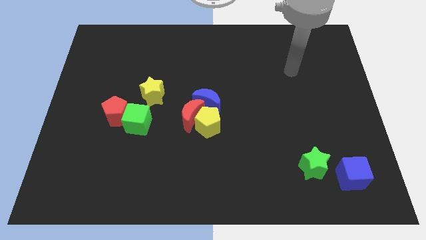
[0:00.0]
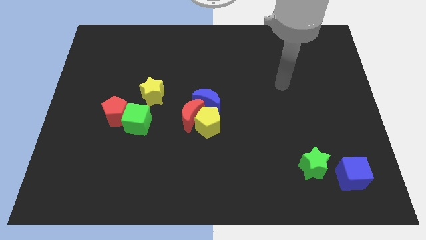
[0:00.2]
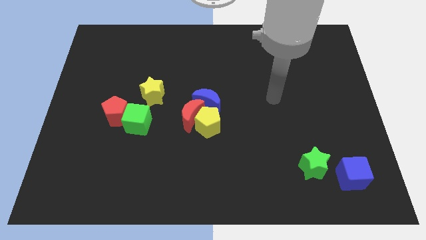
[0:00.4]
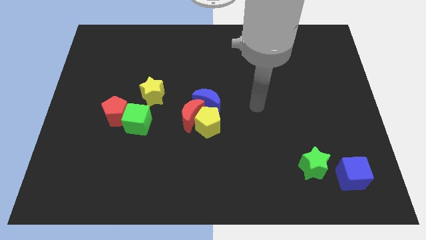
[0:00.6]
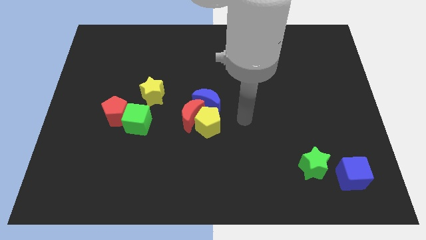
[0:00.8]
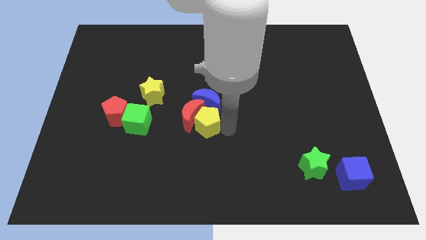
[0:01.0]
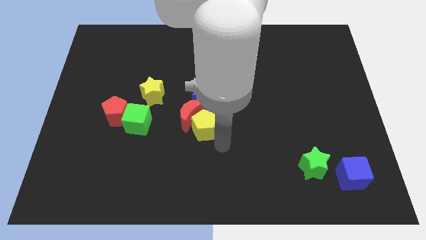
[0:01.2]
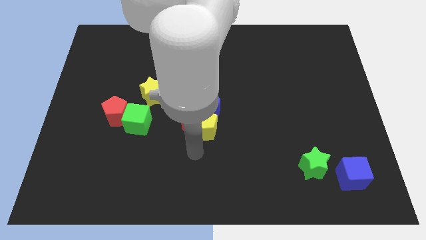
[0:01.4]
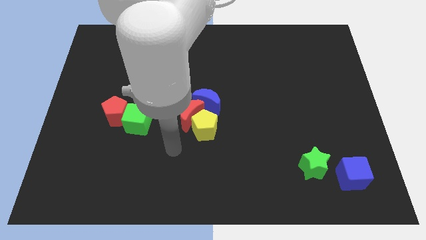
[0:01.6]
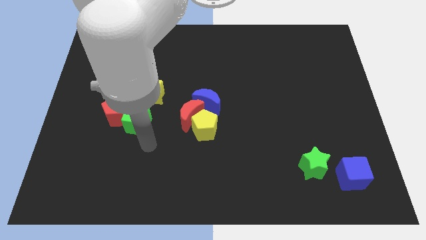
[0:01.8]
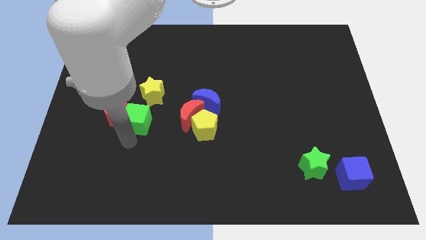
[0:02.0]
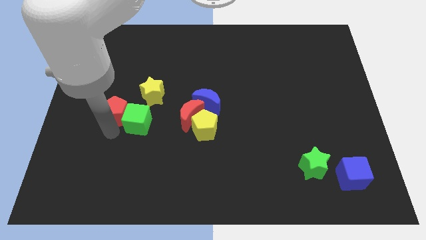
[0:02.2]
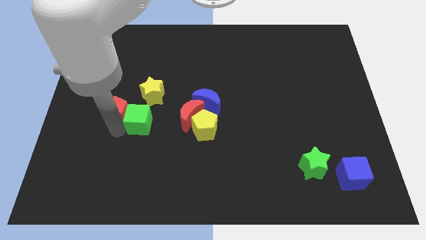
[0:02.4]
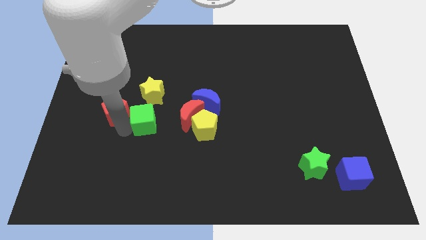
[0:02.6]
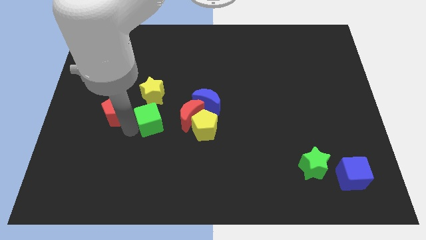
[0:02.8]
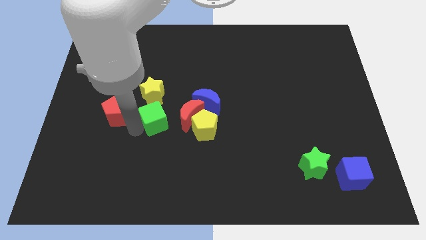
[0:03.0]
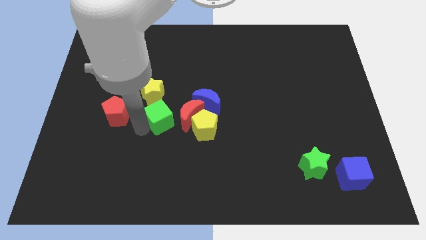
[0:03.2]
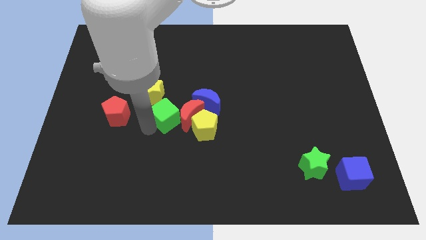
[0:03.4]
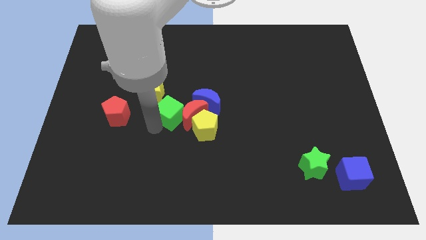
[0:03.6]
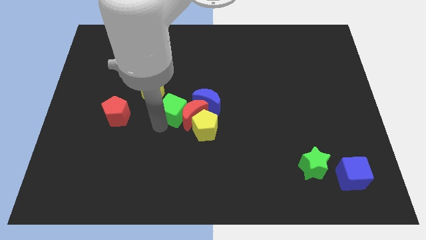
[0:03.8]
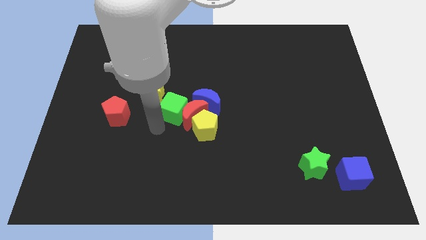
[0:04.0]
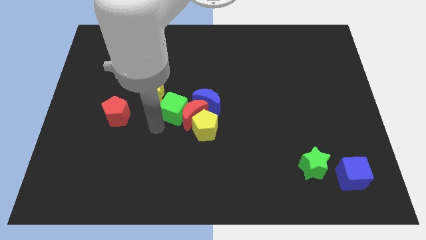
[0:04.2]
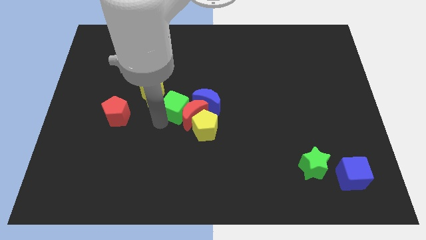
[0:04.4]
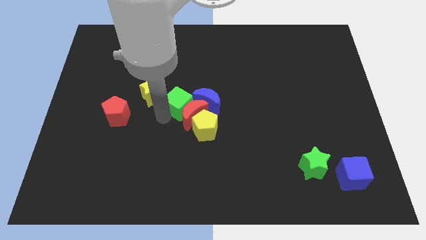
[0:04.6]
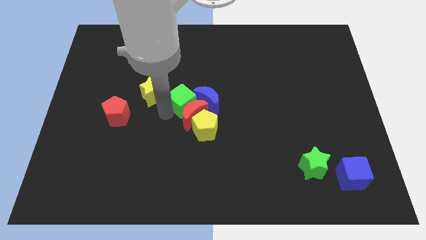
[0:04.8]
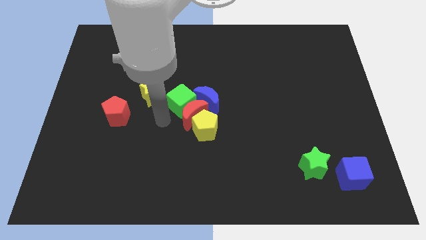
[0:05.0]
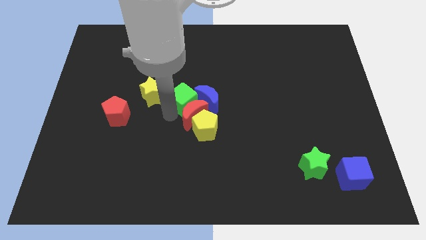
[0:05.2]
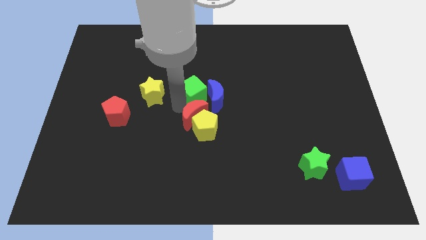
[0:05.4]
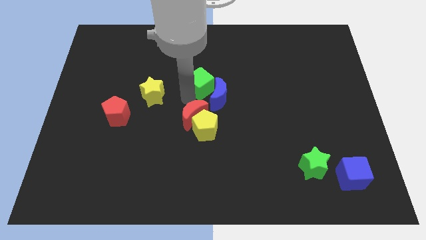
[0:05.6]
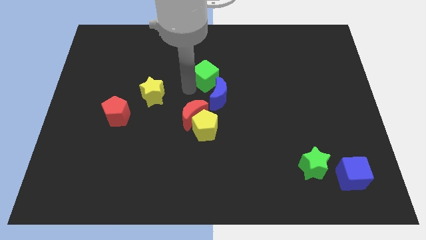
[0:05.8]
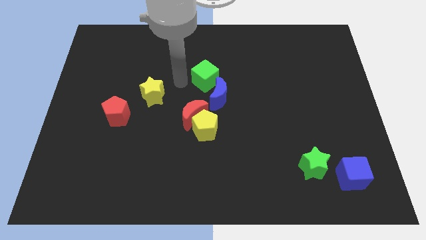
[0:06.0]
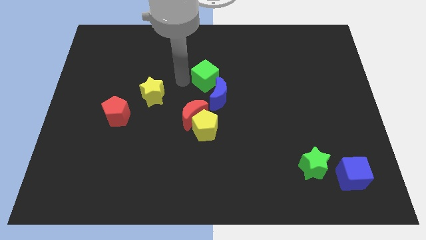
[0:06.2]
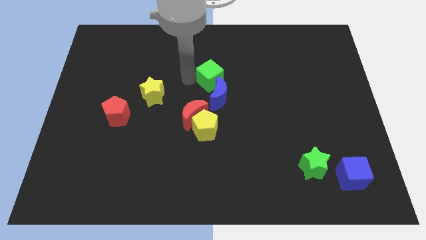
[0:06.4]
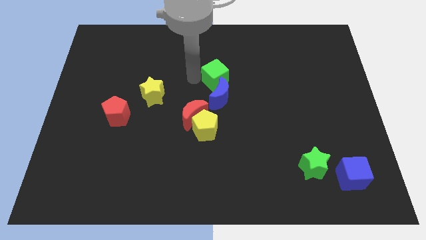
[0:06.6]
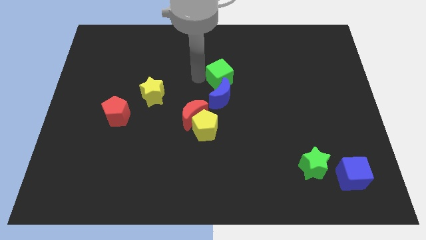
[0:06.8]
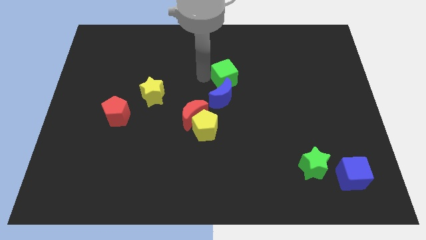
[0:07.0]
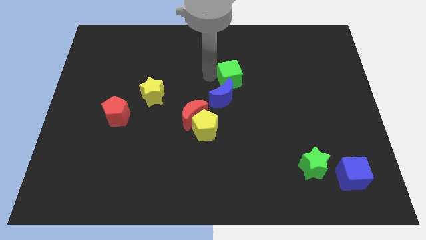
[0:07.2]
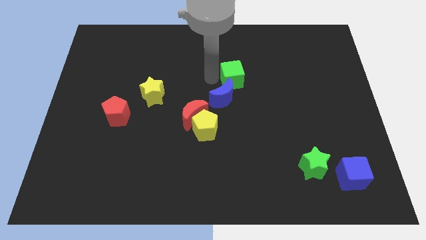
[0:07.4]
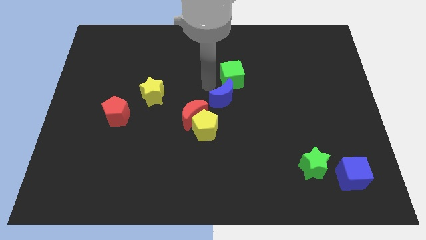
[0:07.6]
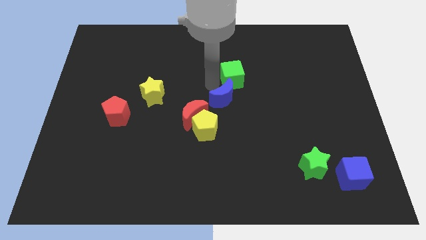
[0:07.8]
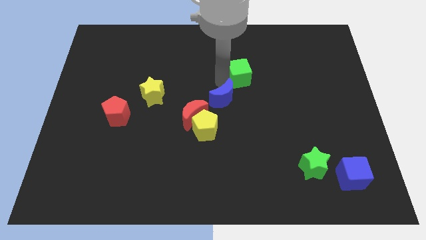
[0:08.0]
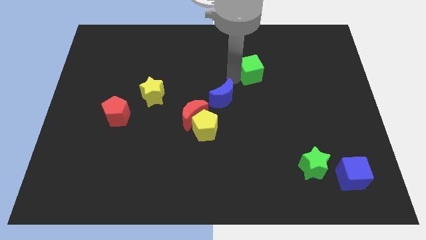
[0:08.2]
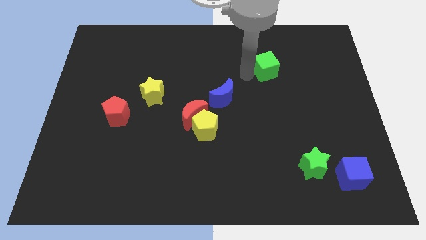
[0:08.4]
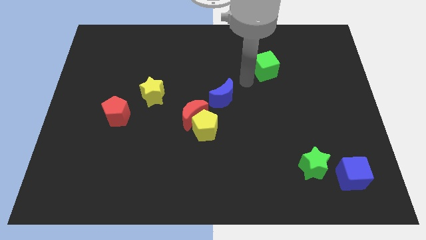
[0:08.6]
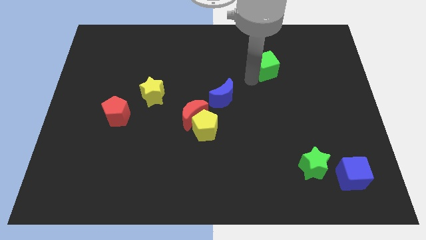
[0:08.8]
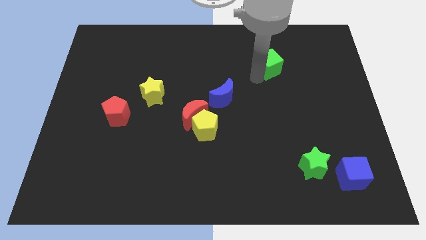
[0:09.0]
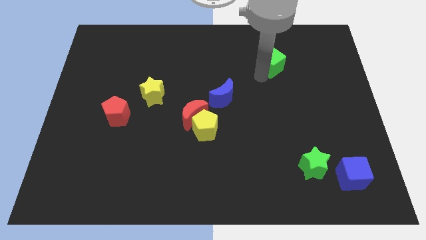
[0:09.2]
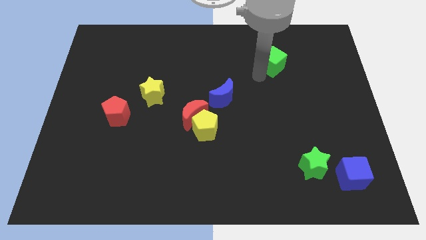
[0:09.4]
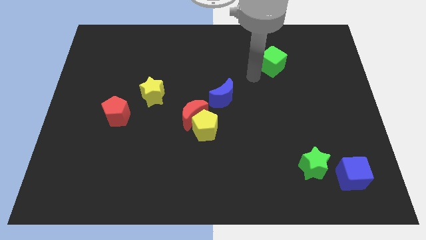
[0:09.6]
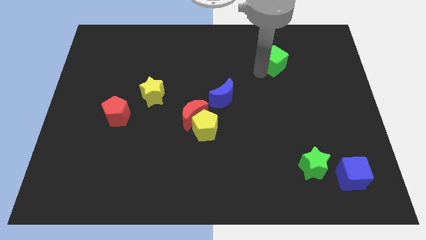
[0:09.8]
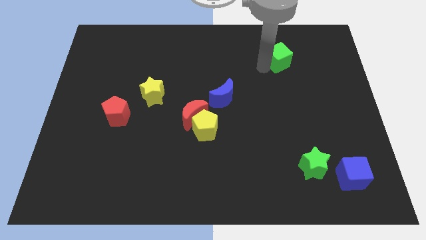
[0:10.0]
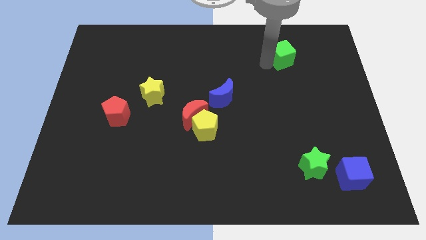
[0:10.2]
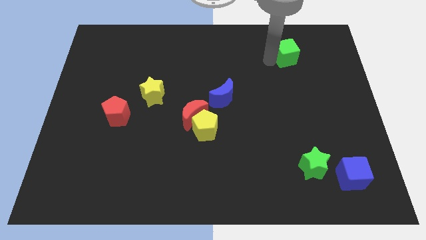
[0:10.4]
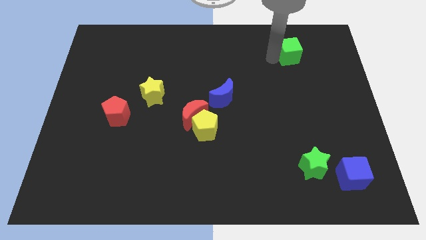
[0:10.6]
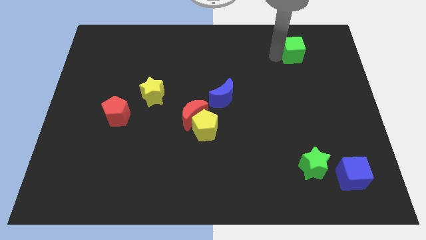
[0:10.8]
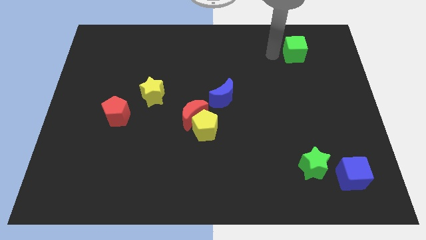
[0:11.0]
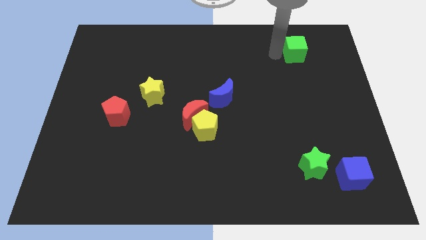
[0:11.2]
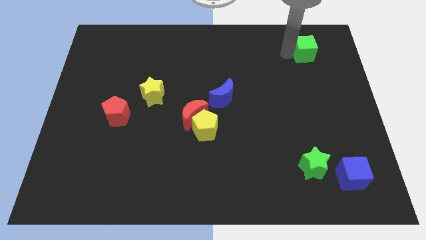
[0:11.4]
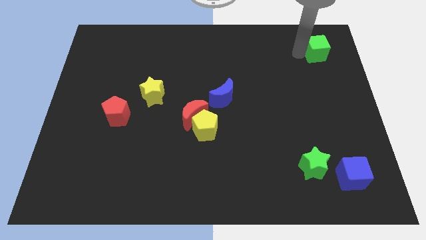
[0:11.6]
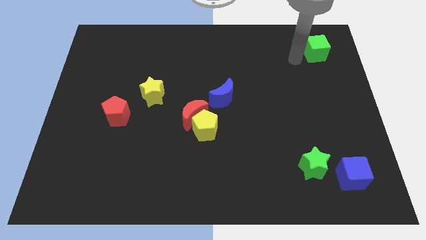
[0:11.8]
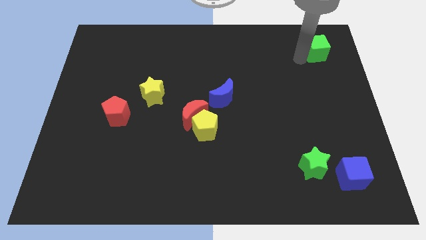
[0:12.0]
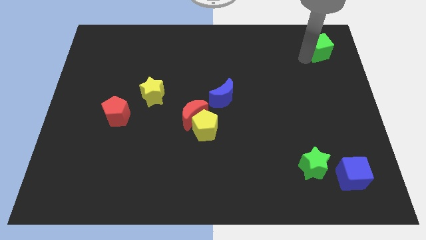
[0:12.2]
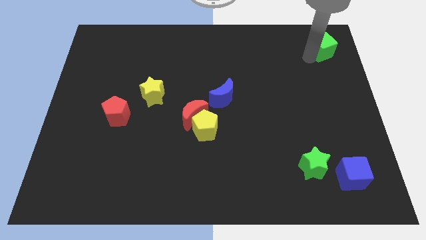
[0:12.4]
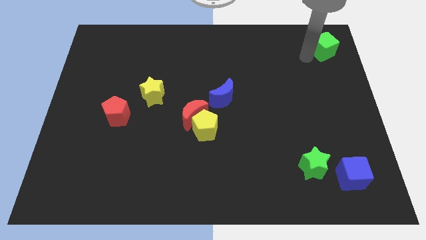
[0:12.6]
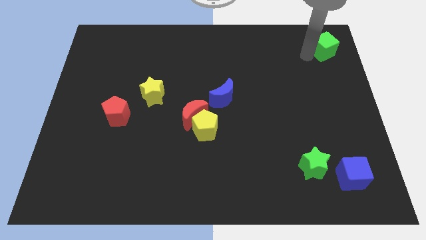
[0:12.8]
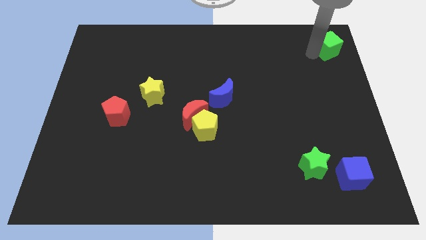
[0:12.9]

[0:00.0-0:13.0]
slide the green cube to the top right of the board
